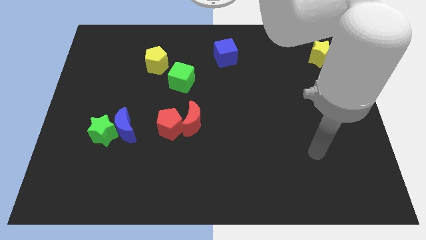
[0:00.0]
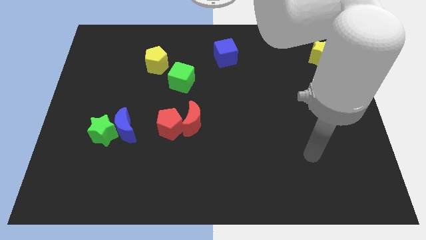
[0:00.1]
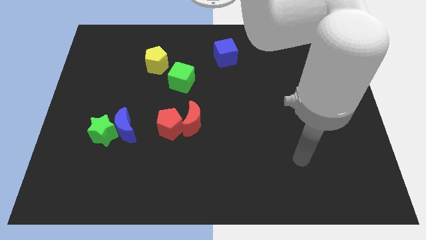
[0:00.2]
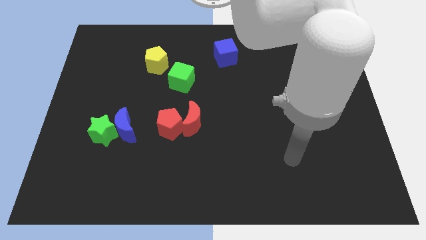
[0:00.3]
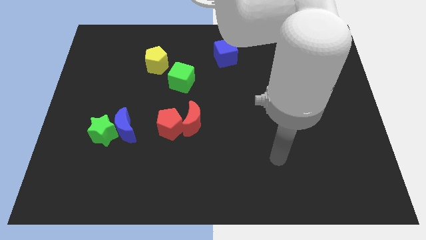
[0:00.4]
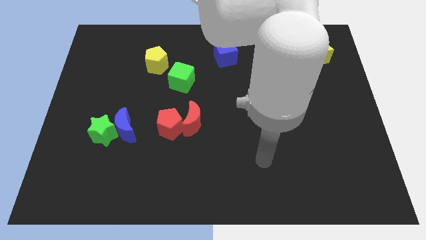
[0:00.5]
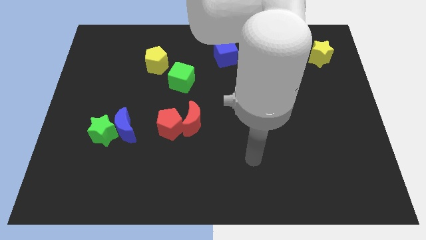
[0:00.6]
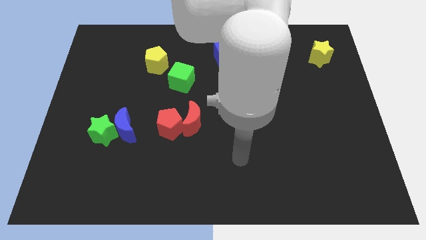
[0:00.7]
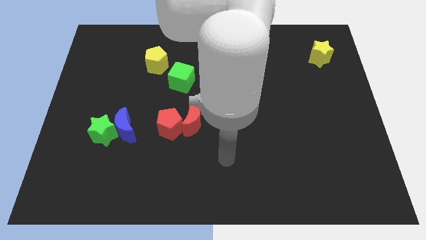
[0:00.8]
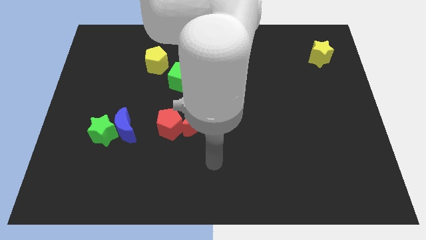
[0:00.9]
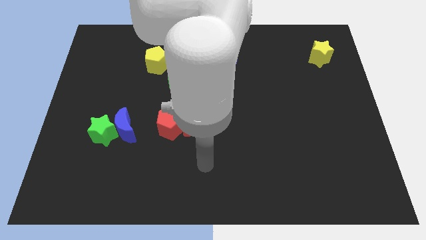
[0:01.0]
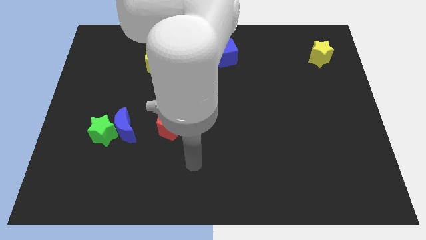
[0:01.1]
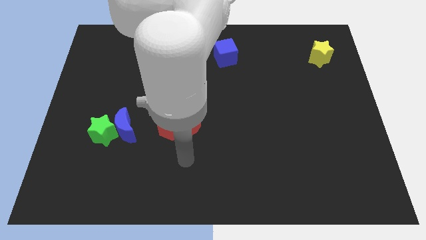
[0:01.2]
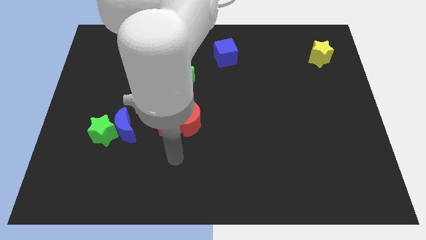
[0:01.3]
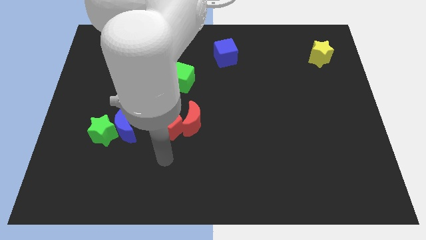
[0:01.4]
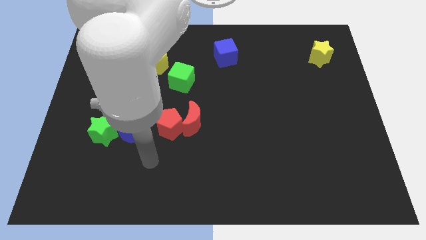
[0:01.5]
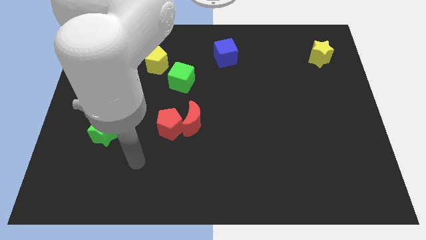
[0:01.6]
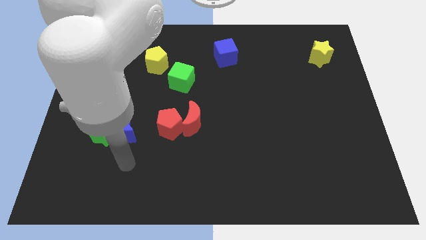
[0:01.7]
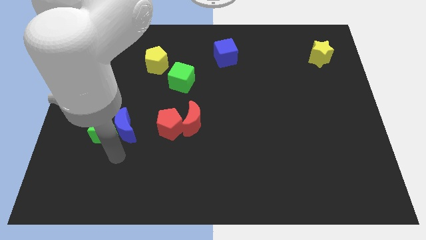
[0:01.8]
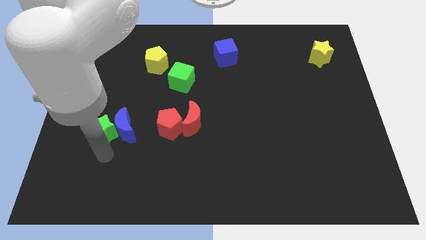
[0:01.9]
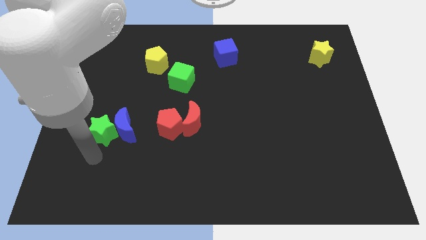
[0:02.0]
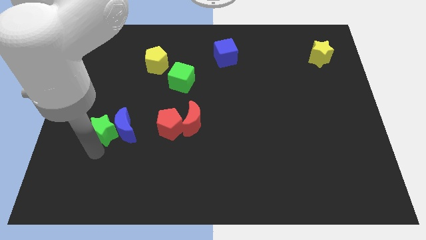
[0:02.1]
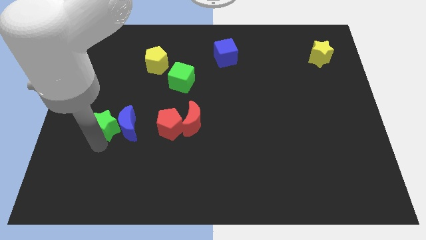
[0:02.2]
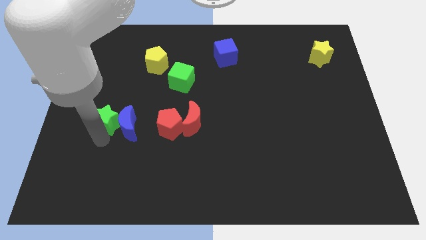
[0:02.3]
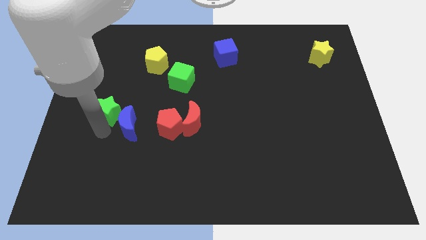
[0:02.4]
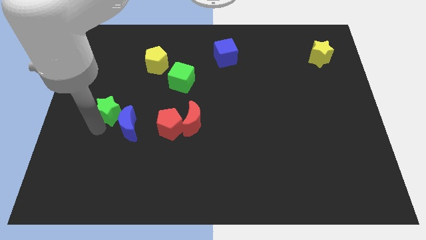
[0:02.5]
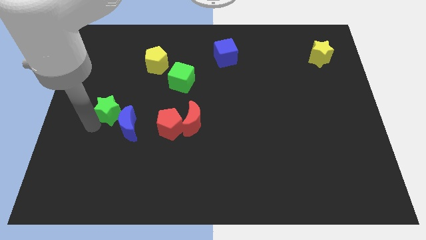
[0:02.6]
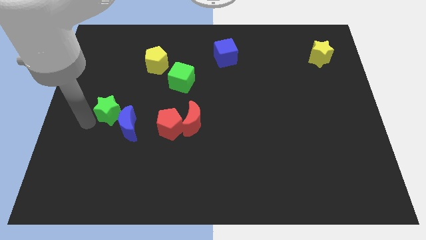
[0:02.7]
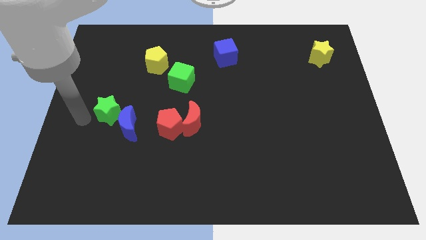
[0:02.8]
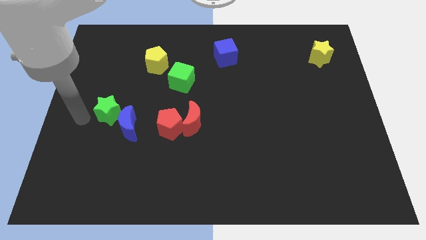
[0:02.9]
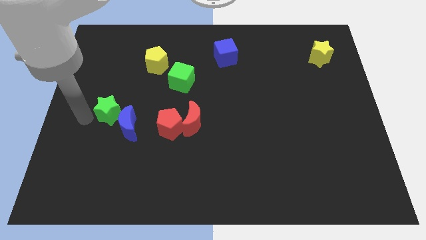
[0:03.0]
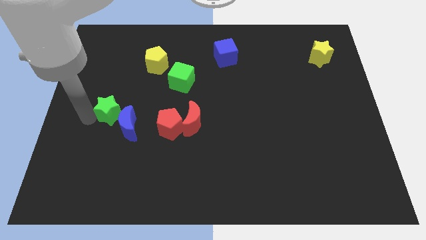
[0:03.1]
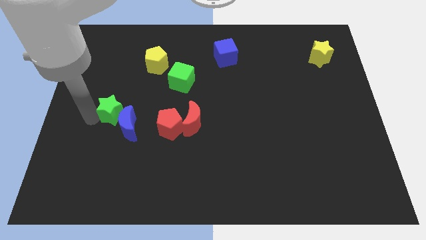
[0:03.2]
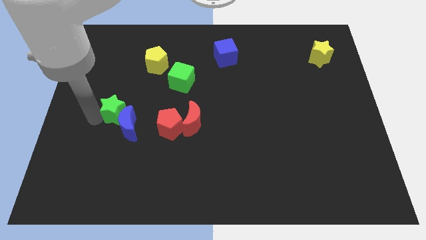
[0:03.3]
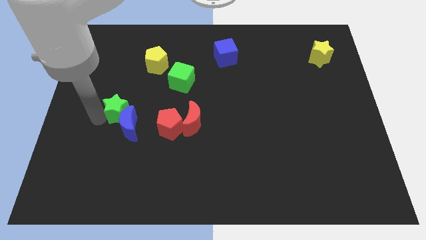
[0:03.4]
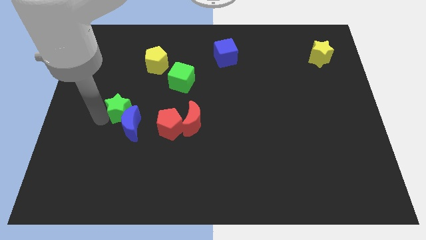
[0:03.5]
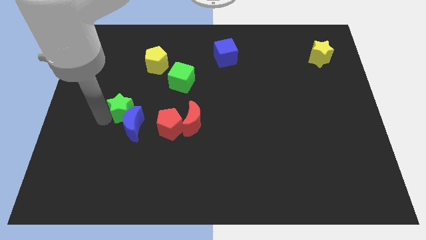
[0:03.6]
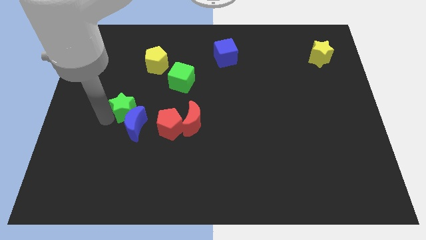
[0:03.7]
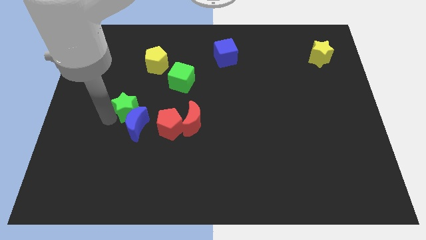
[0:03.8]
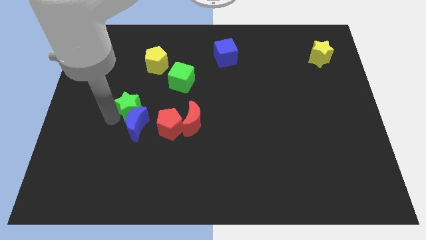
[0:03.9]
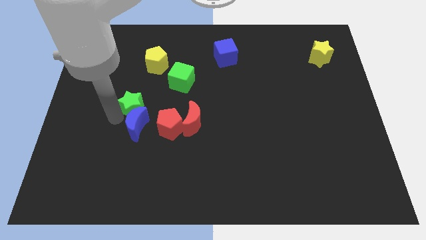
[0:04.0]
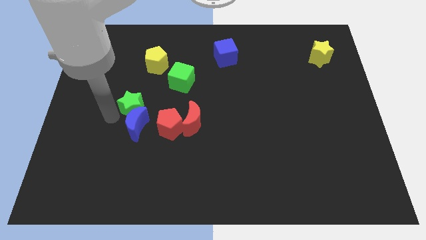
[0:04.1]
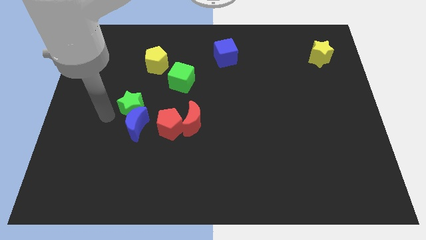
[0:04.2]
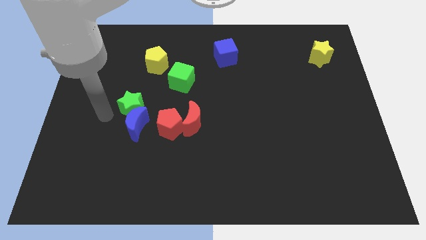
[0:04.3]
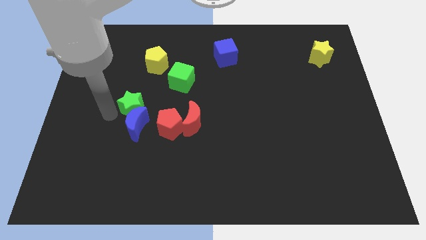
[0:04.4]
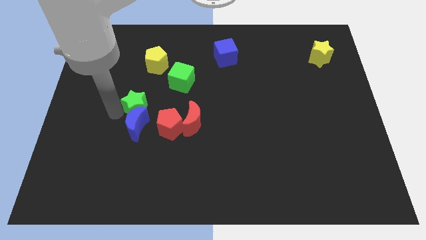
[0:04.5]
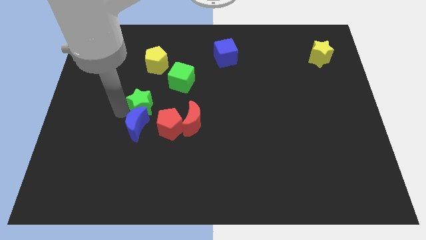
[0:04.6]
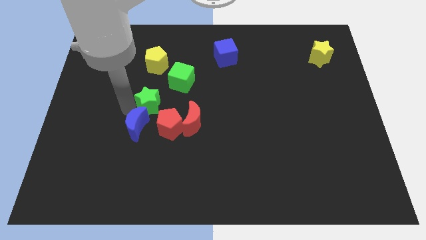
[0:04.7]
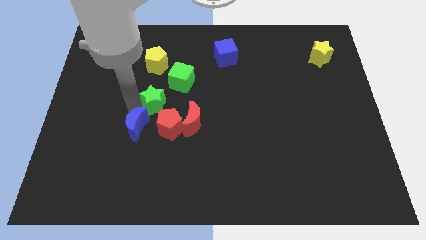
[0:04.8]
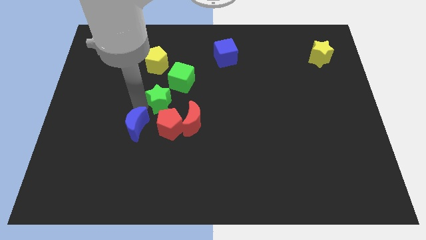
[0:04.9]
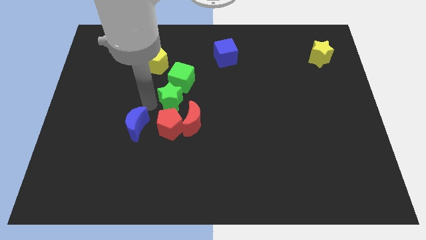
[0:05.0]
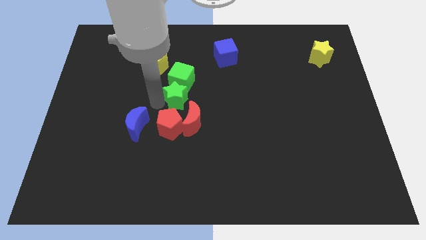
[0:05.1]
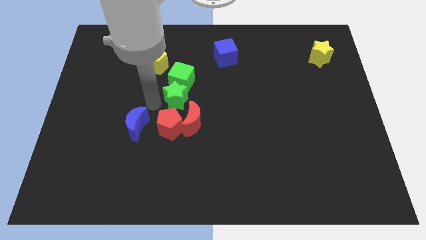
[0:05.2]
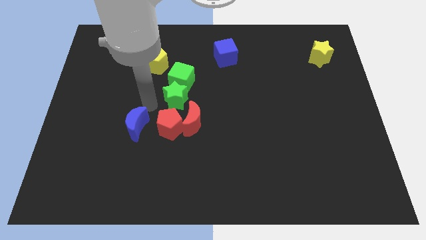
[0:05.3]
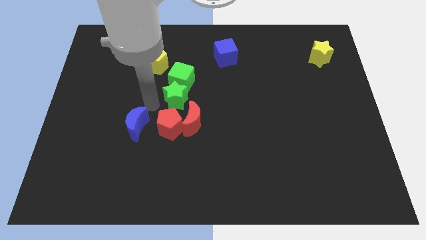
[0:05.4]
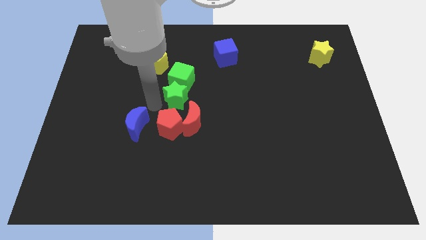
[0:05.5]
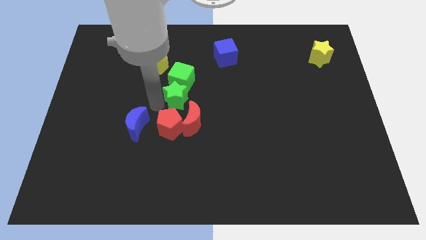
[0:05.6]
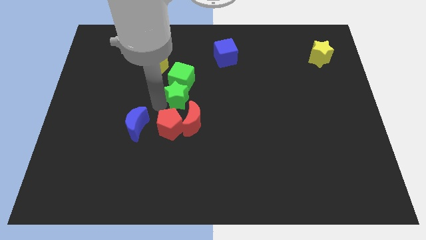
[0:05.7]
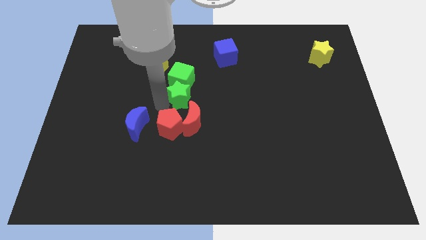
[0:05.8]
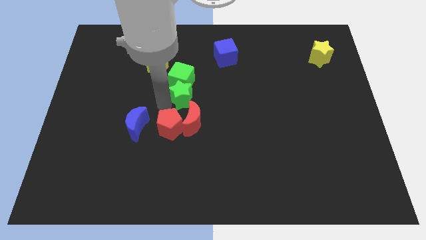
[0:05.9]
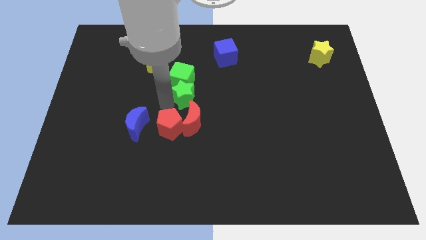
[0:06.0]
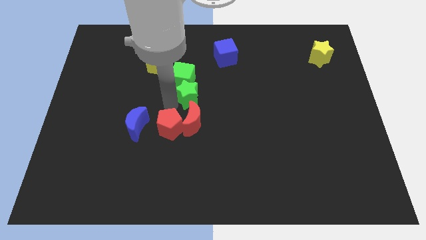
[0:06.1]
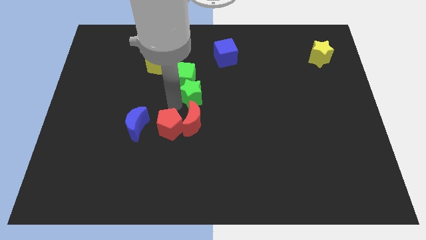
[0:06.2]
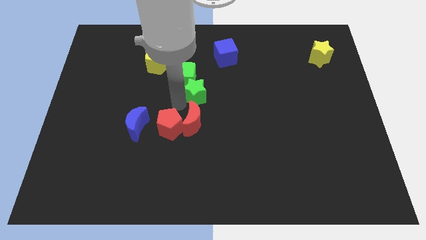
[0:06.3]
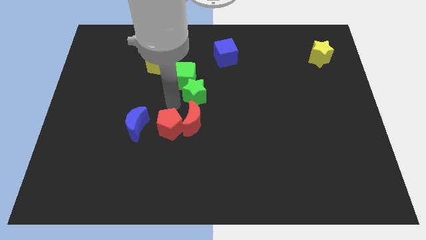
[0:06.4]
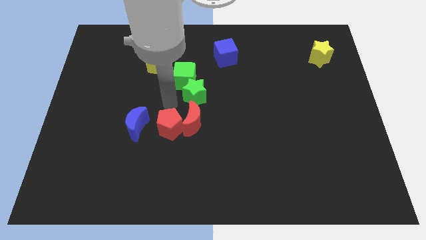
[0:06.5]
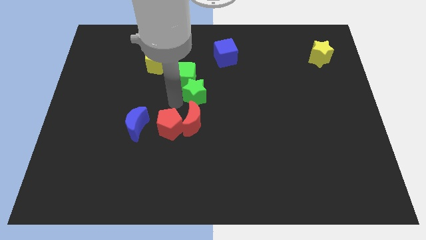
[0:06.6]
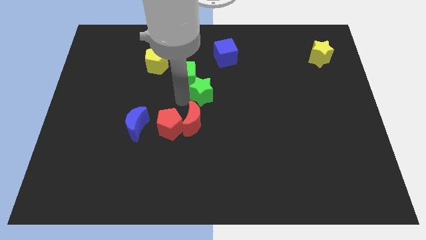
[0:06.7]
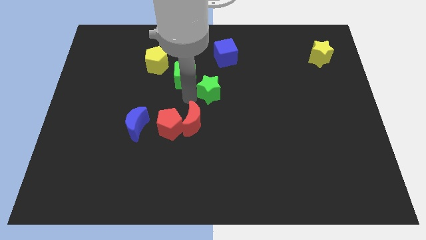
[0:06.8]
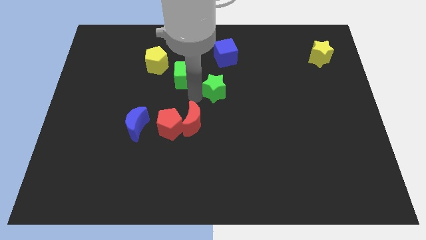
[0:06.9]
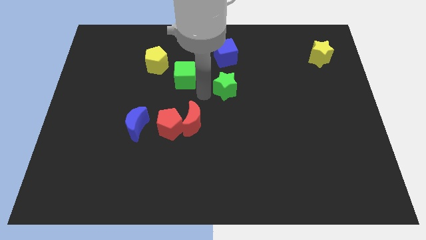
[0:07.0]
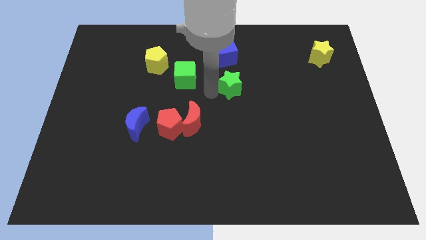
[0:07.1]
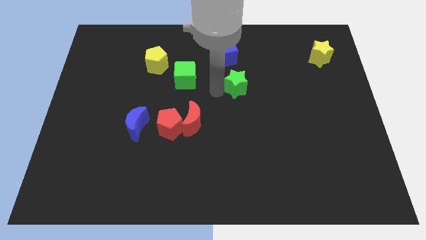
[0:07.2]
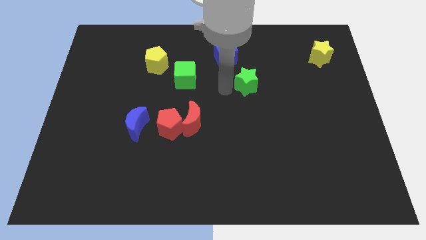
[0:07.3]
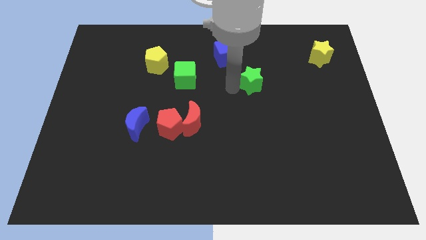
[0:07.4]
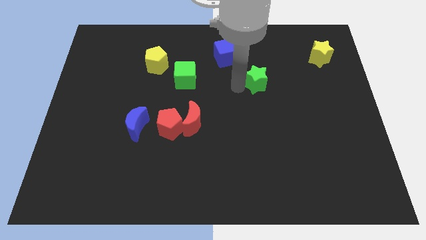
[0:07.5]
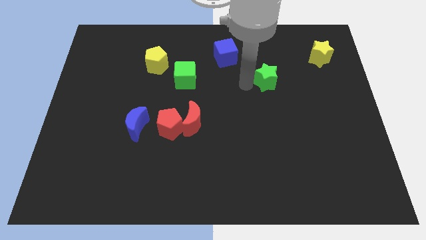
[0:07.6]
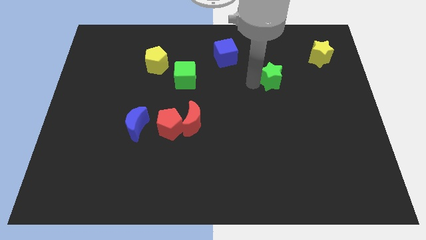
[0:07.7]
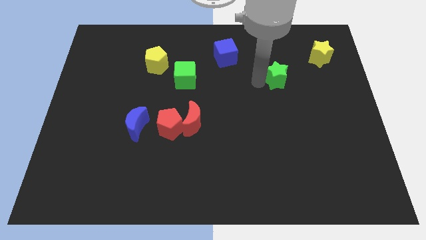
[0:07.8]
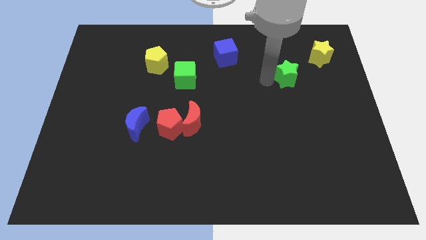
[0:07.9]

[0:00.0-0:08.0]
push the green star diagonally down and to the left of the yellow star
